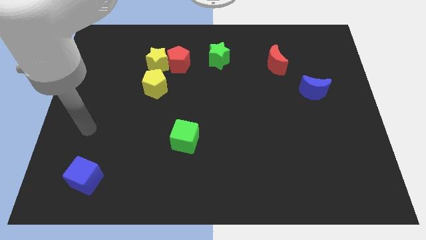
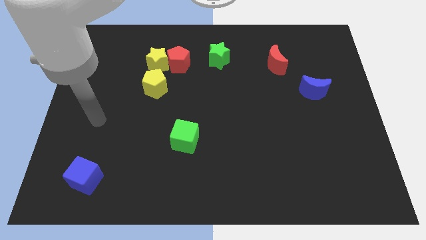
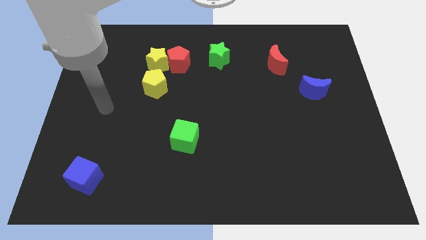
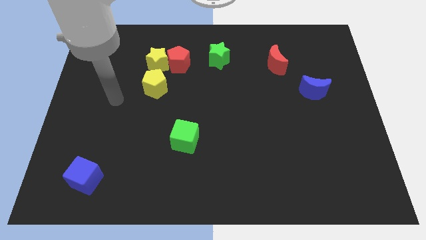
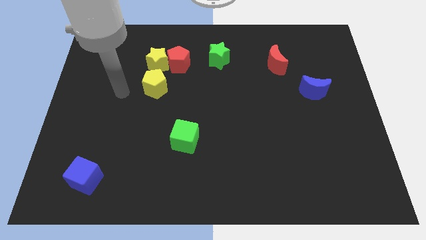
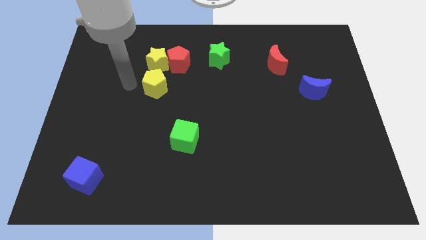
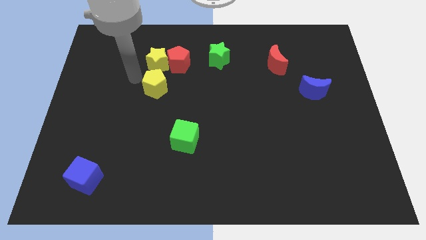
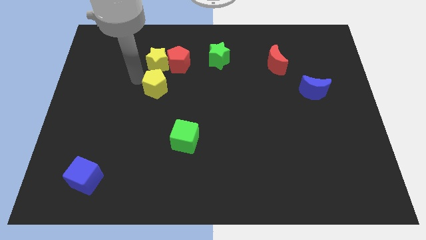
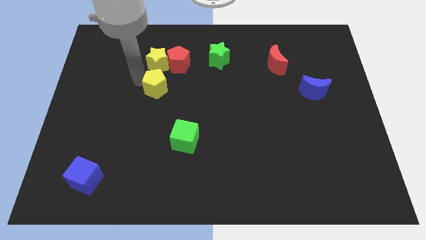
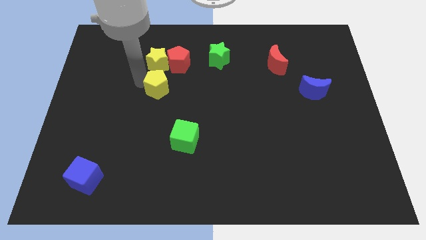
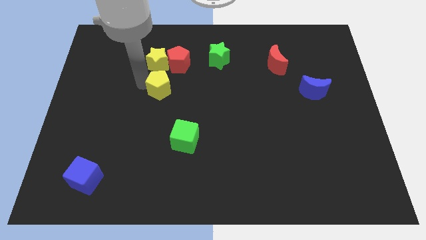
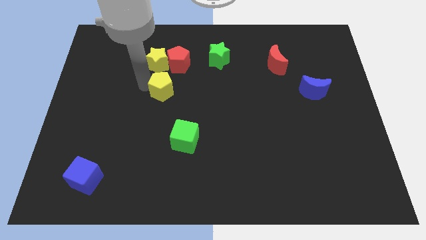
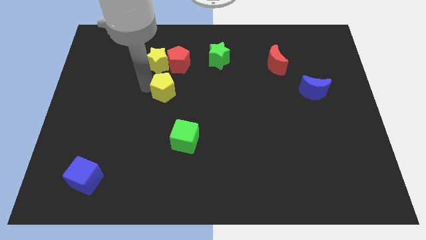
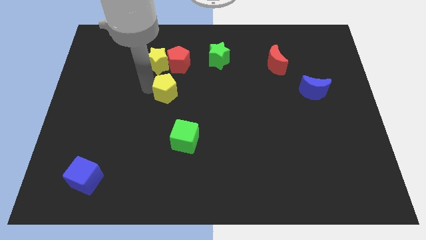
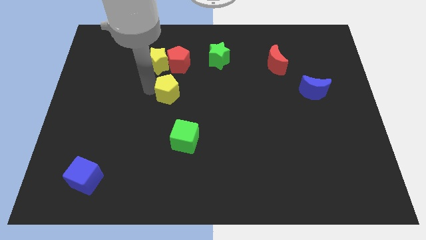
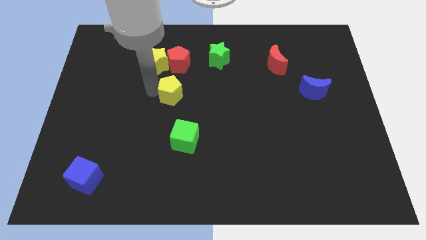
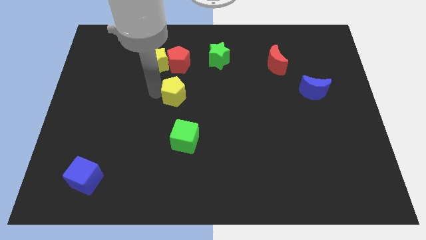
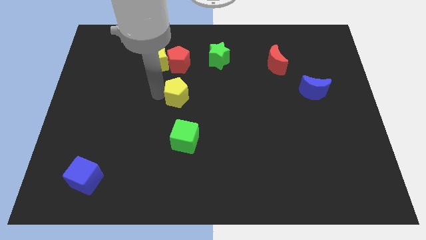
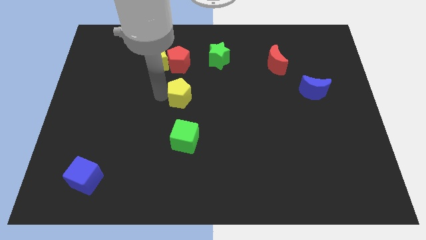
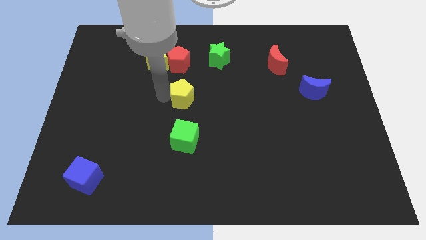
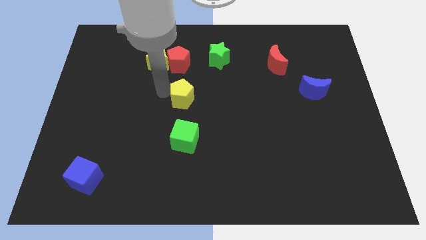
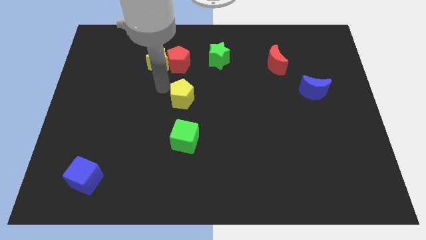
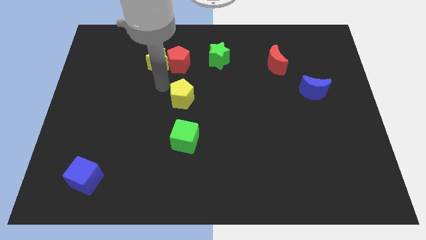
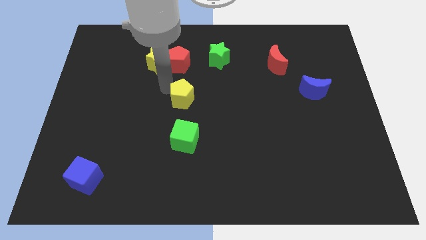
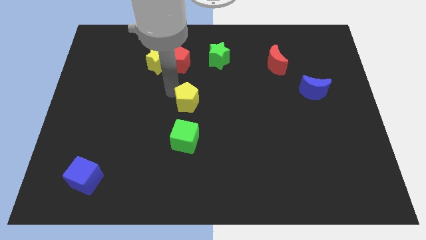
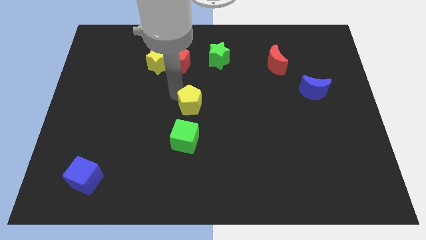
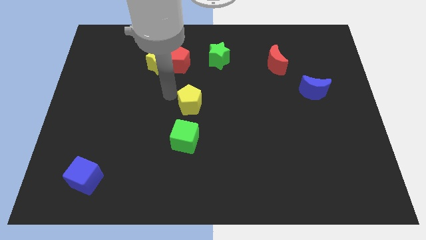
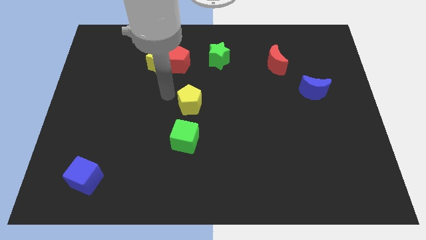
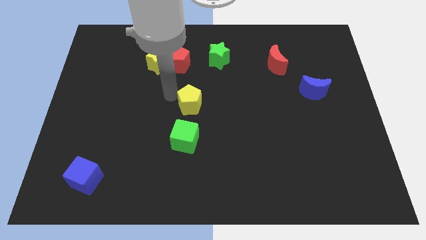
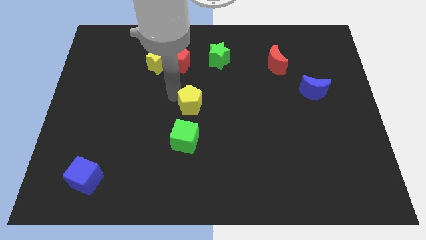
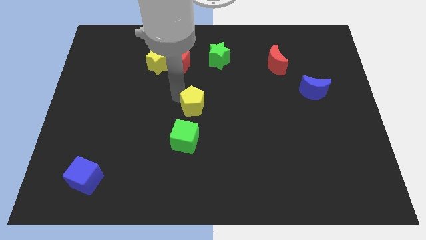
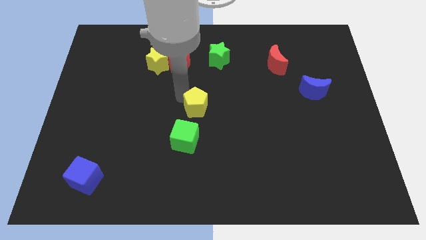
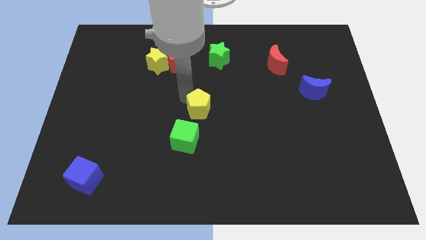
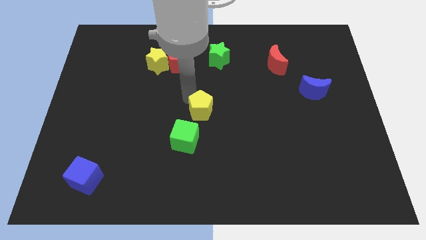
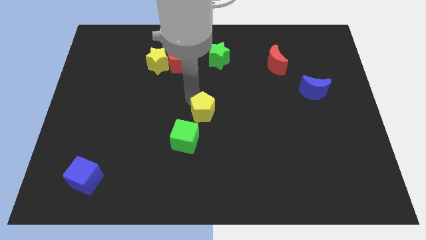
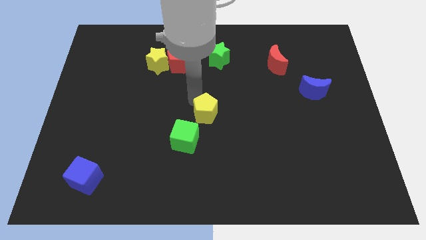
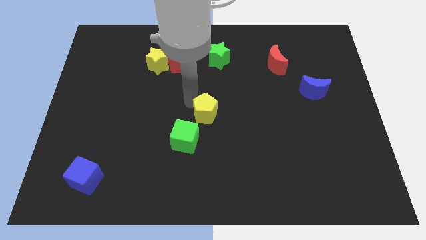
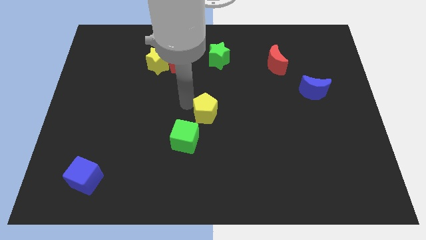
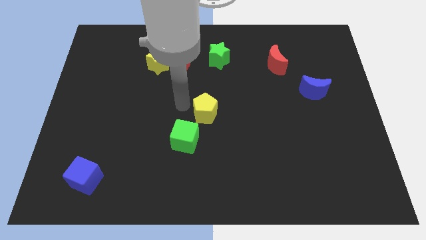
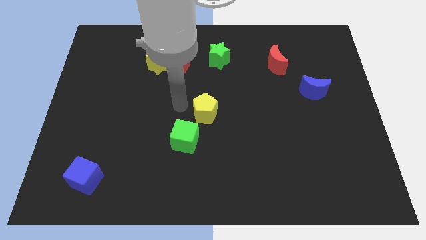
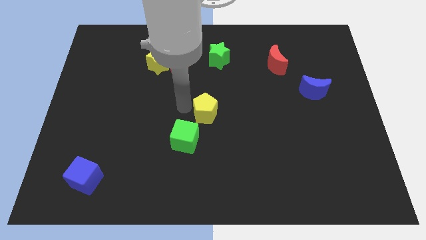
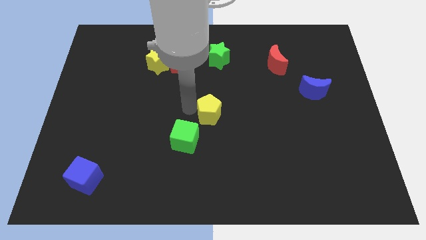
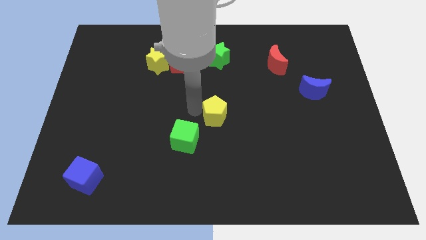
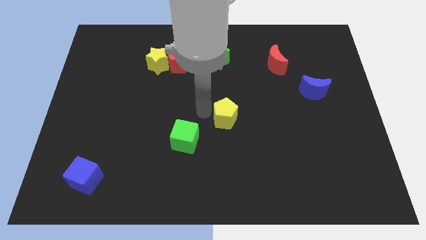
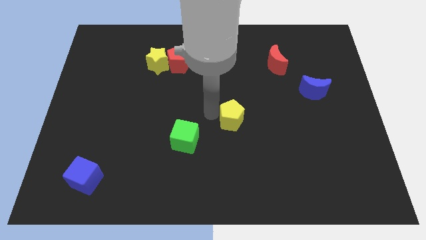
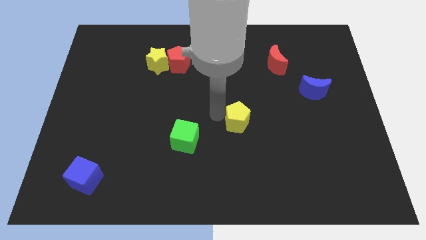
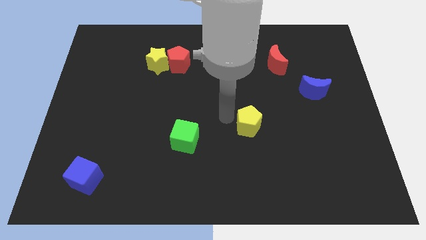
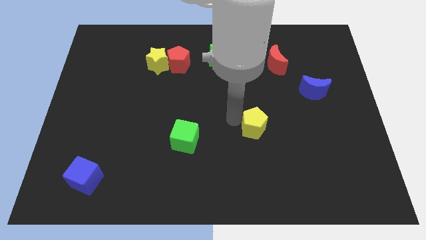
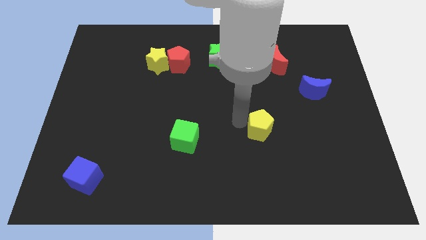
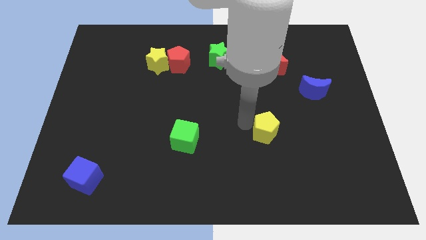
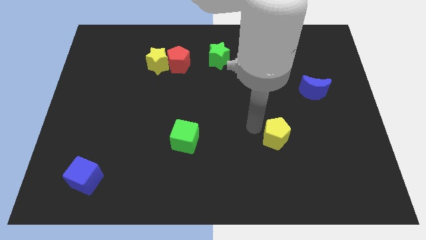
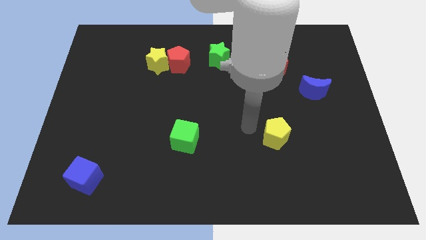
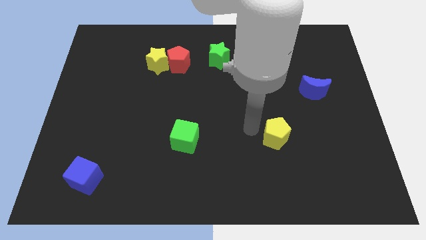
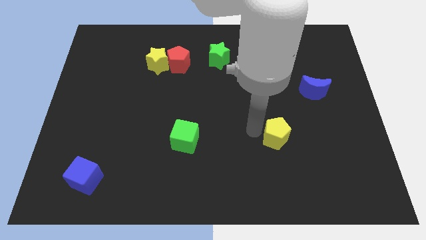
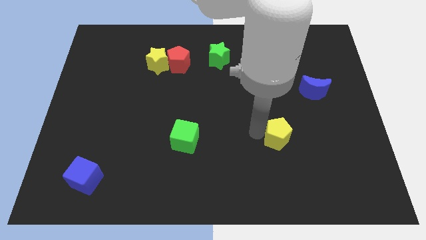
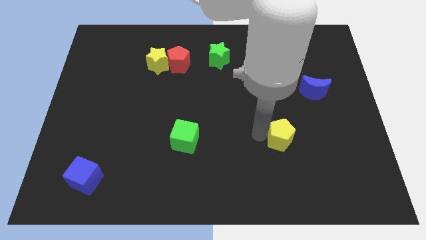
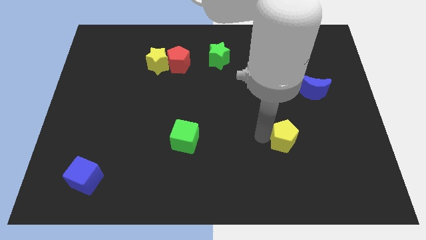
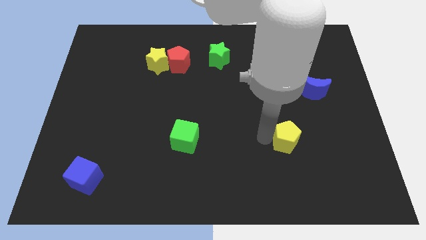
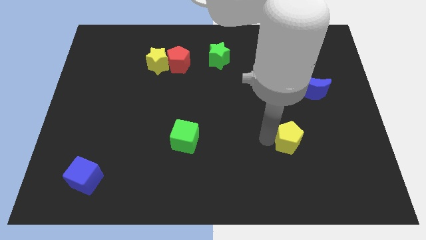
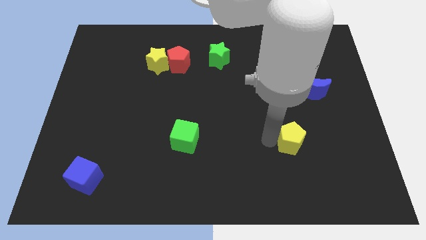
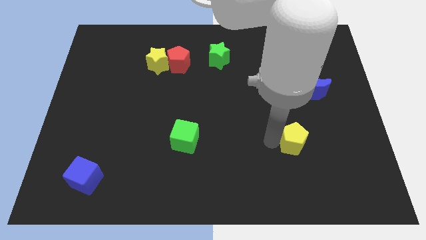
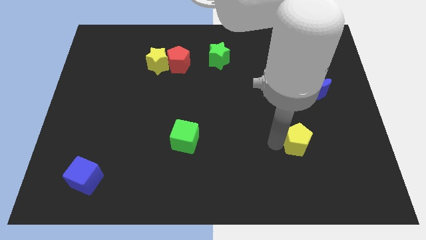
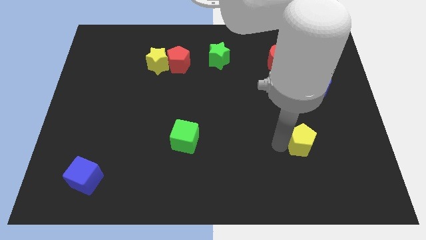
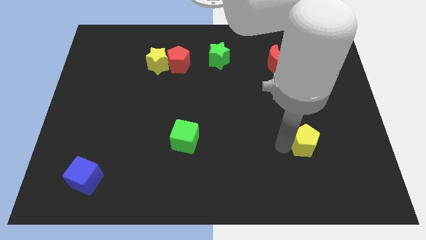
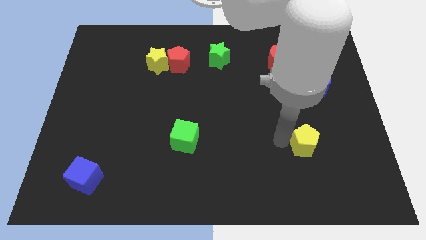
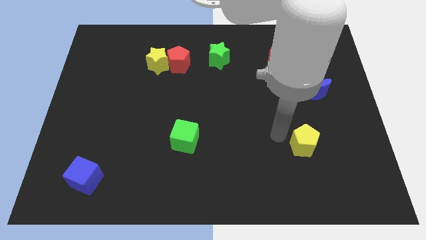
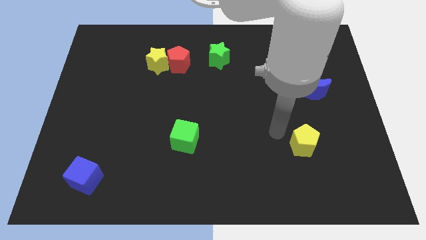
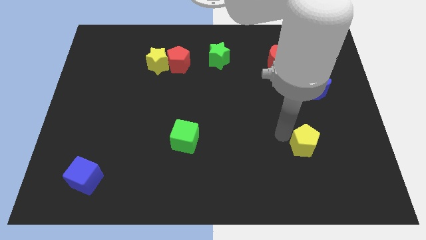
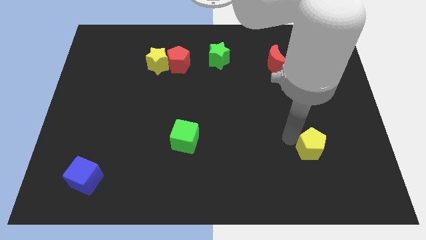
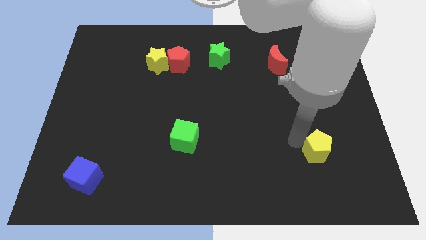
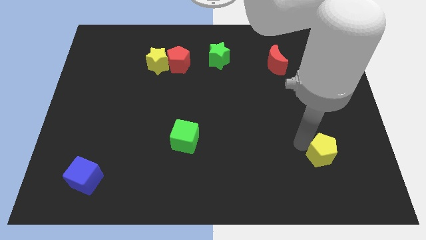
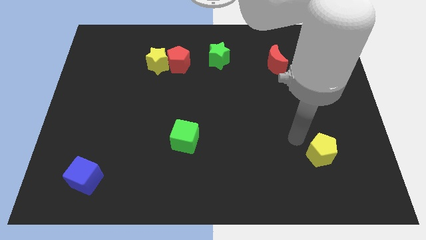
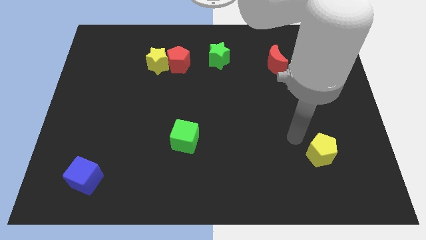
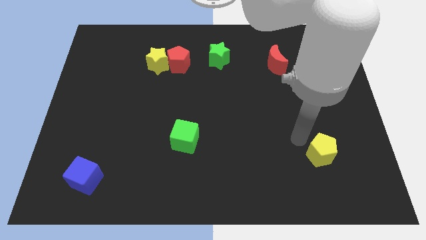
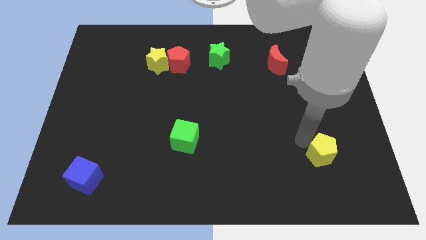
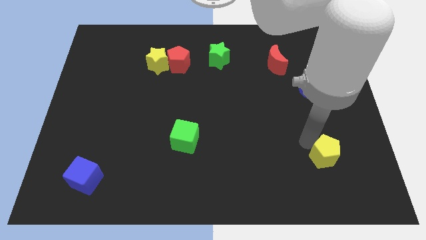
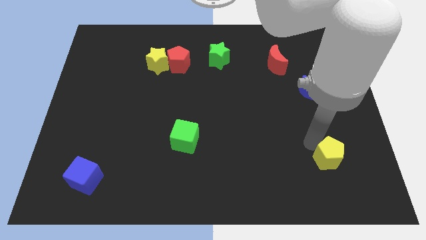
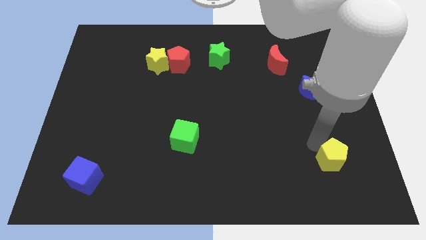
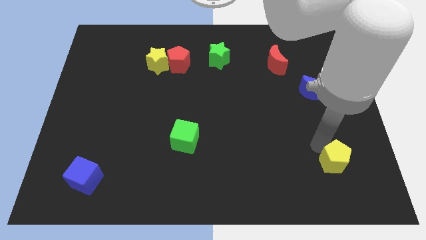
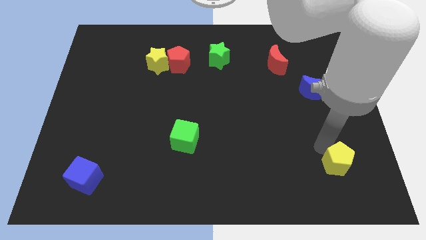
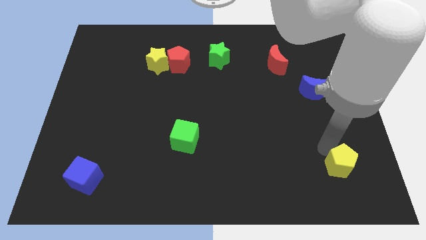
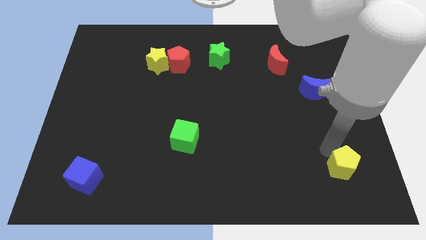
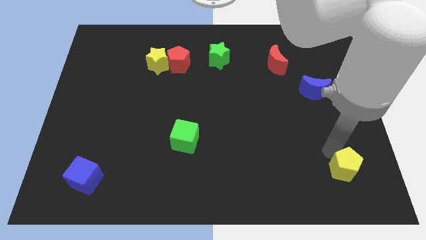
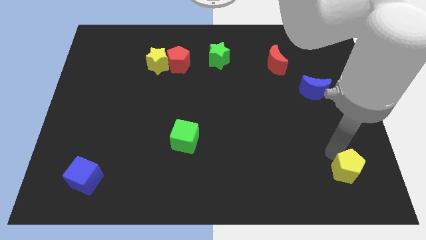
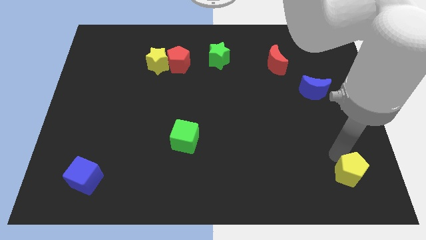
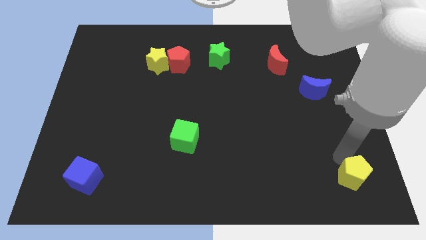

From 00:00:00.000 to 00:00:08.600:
push the yellow pentagon to the bottom right
